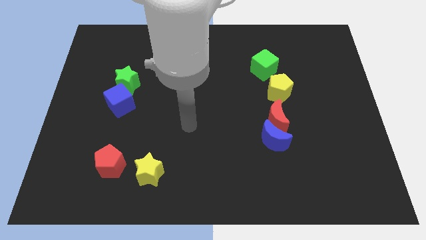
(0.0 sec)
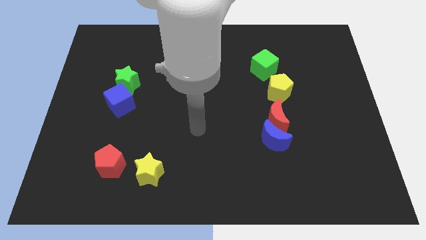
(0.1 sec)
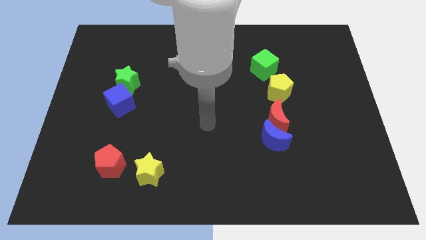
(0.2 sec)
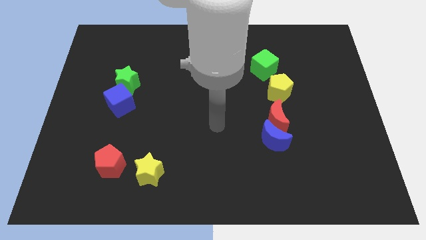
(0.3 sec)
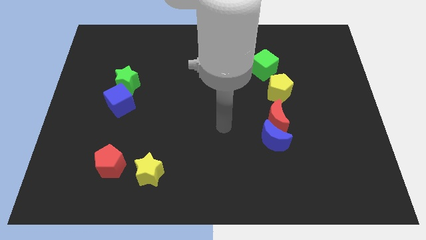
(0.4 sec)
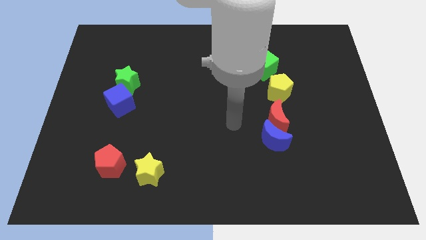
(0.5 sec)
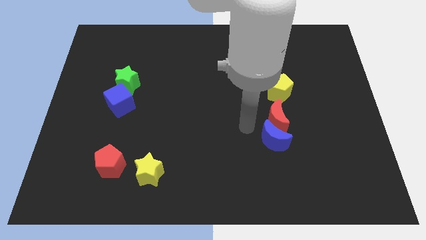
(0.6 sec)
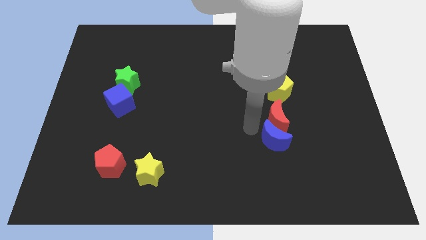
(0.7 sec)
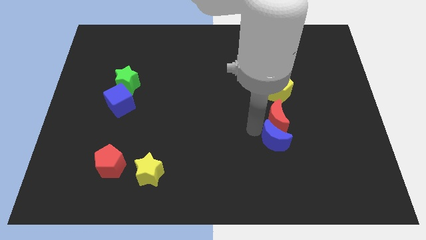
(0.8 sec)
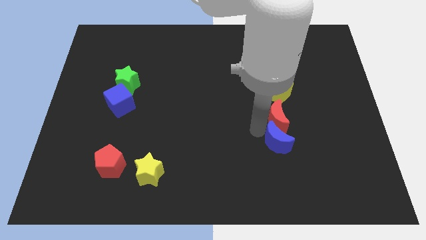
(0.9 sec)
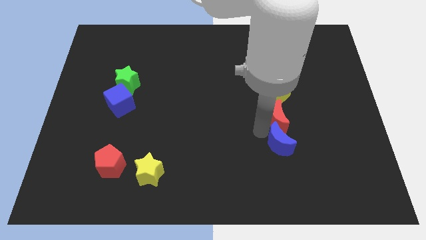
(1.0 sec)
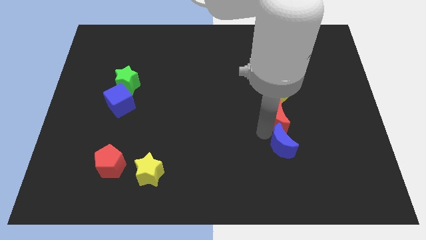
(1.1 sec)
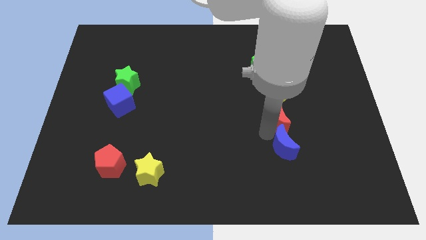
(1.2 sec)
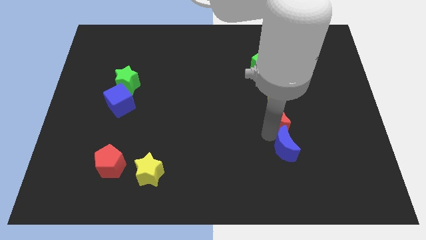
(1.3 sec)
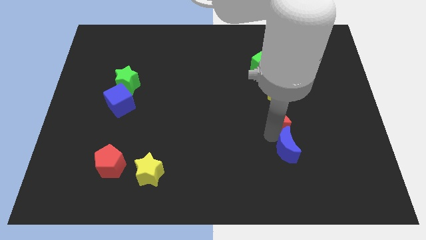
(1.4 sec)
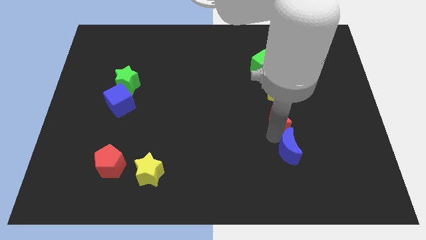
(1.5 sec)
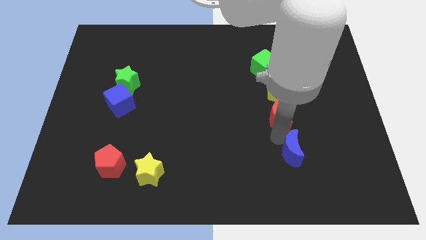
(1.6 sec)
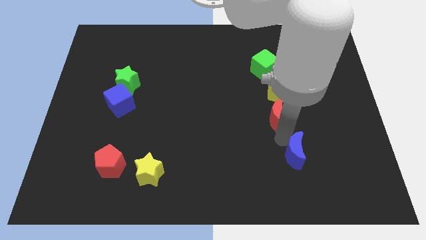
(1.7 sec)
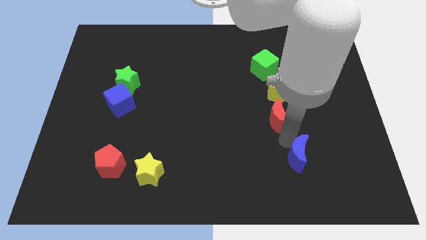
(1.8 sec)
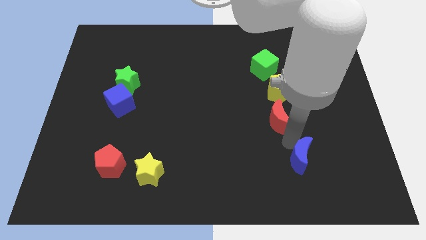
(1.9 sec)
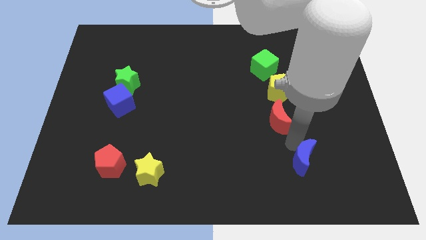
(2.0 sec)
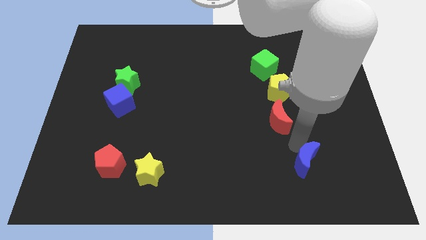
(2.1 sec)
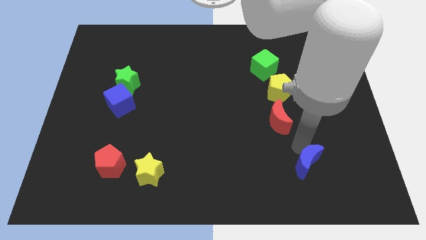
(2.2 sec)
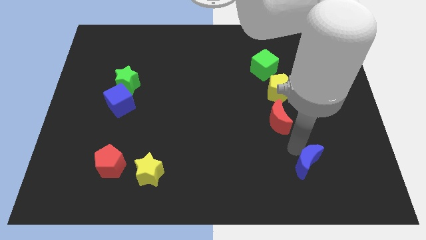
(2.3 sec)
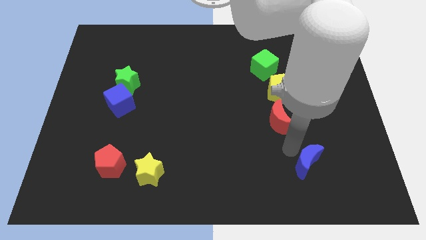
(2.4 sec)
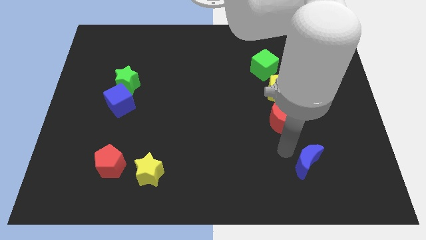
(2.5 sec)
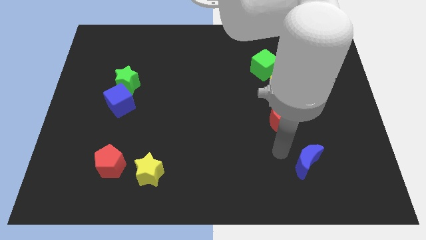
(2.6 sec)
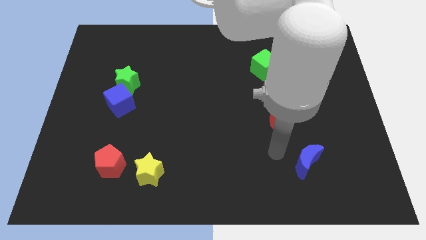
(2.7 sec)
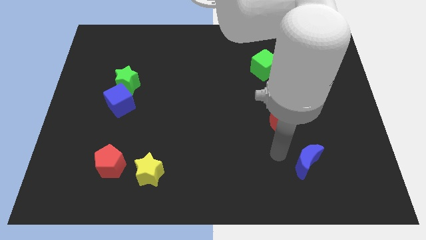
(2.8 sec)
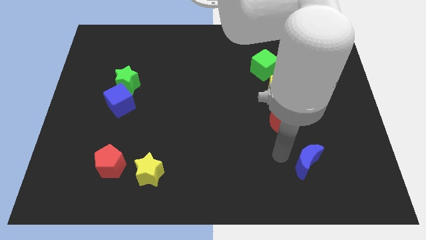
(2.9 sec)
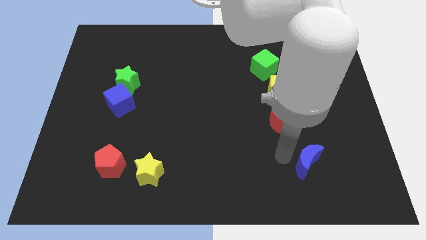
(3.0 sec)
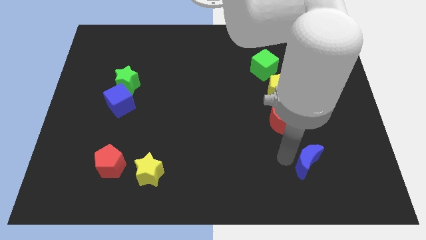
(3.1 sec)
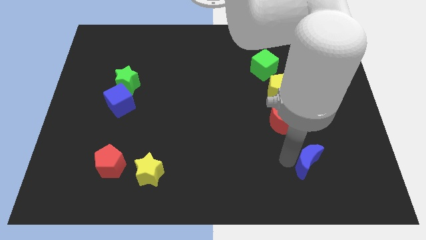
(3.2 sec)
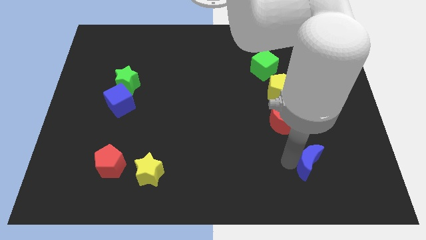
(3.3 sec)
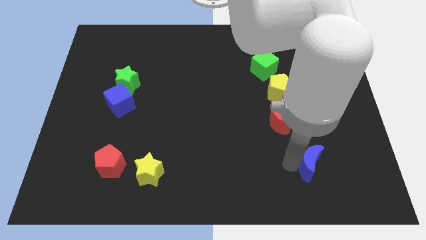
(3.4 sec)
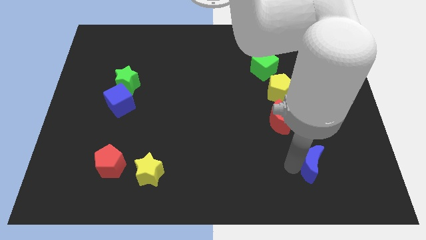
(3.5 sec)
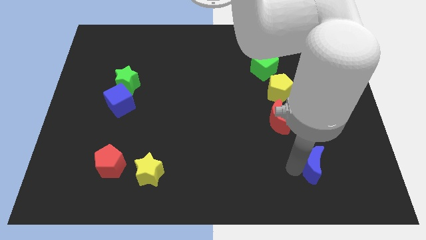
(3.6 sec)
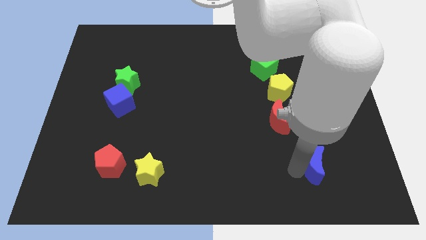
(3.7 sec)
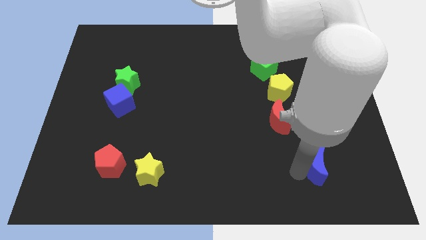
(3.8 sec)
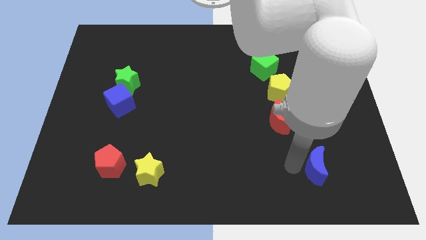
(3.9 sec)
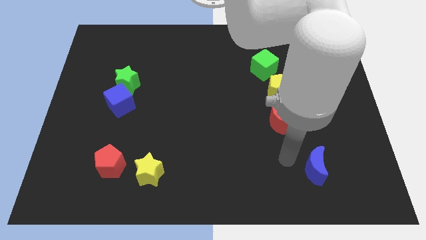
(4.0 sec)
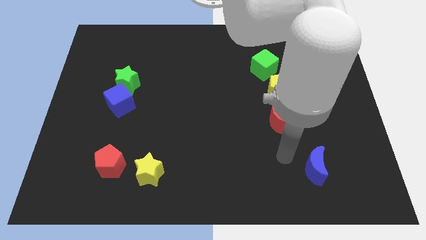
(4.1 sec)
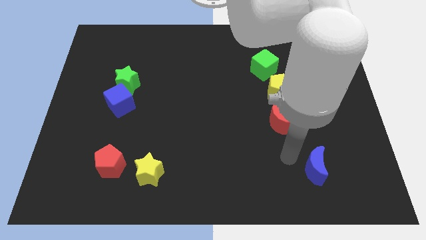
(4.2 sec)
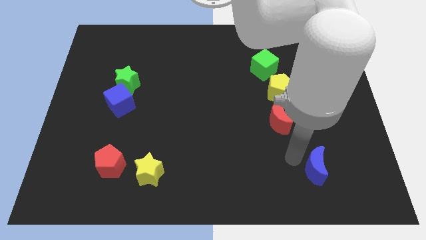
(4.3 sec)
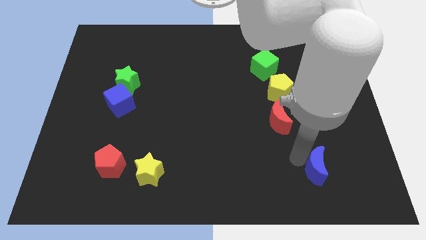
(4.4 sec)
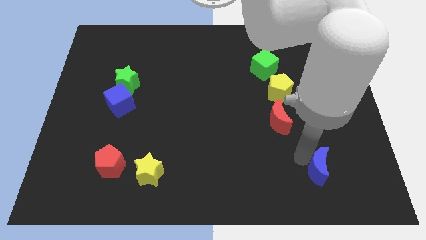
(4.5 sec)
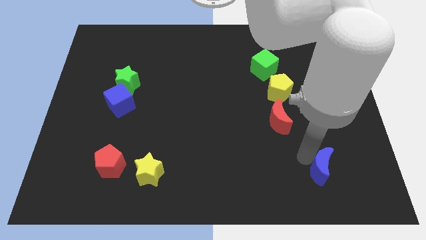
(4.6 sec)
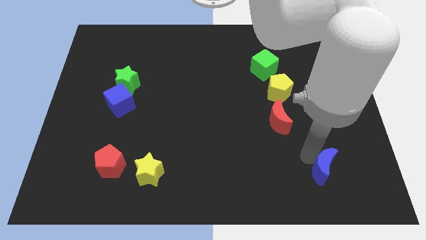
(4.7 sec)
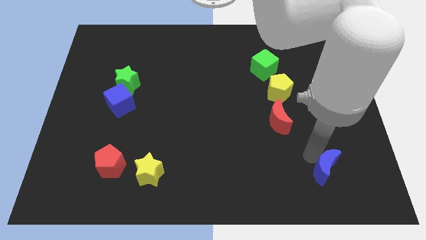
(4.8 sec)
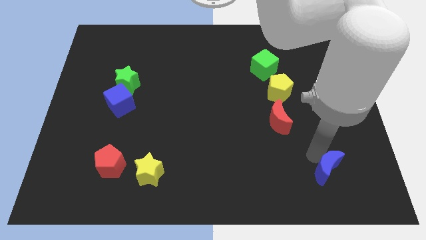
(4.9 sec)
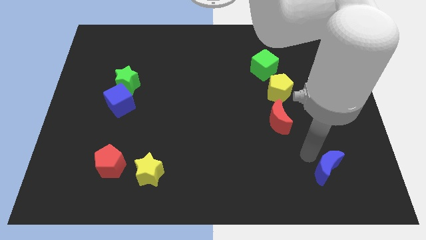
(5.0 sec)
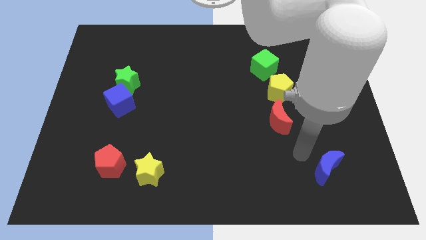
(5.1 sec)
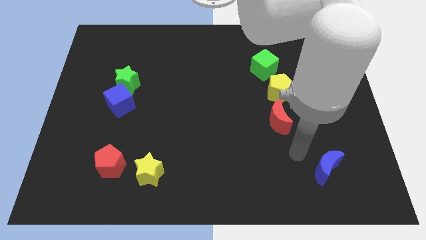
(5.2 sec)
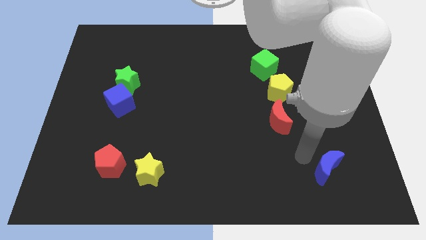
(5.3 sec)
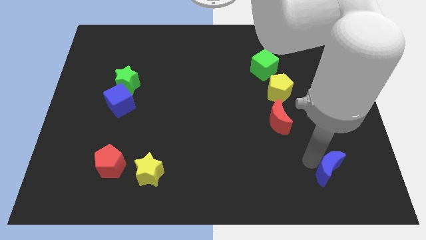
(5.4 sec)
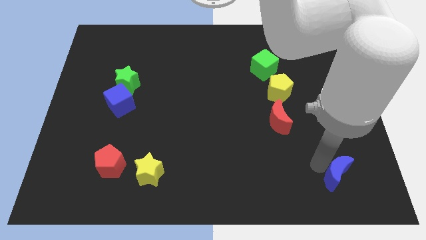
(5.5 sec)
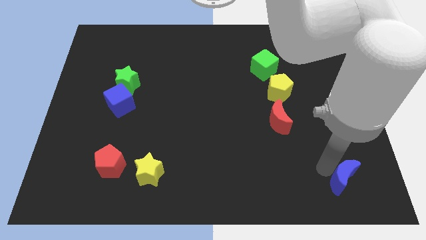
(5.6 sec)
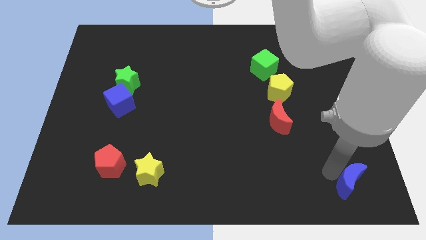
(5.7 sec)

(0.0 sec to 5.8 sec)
slide the blue moon to the bottom right corner

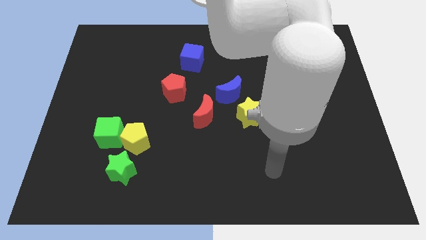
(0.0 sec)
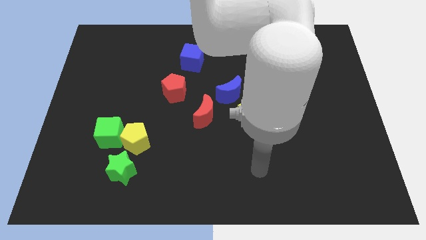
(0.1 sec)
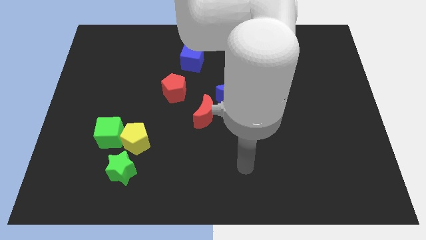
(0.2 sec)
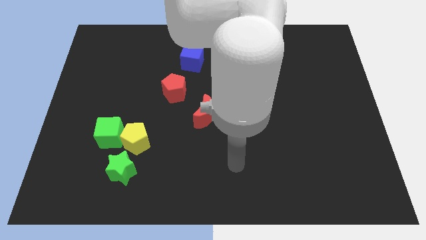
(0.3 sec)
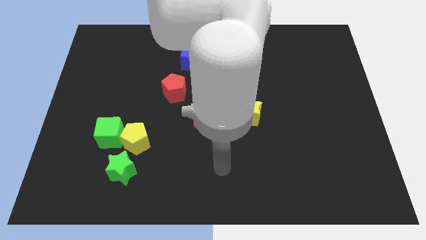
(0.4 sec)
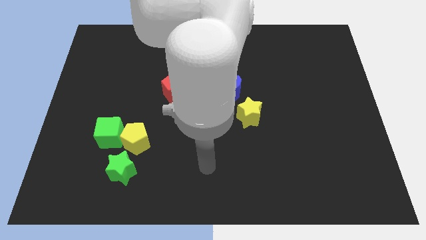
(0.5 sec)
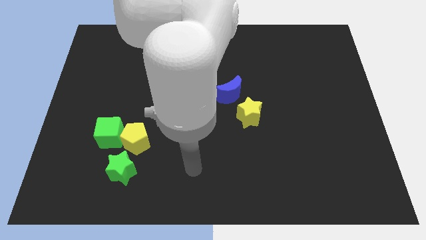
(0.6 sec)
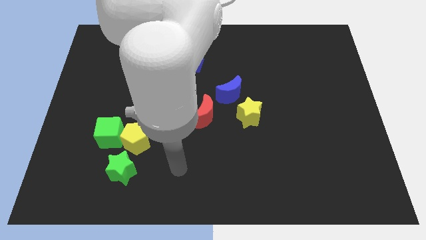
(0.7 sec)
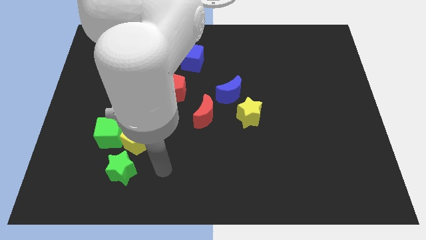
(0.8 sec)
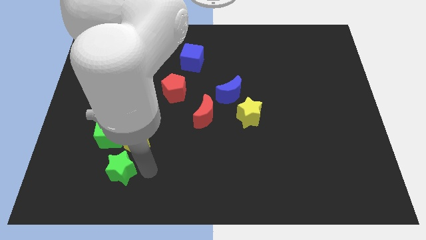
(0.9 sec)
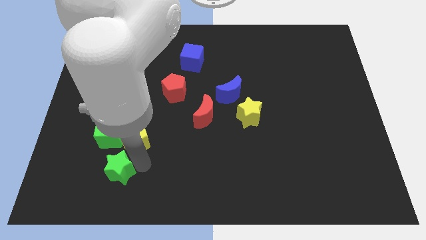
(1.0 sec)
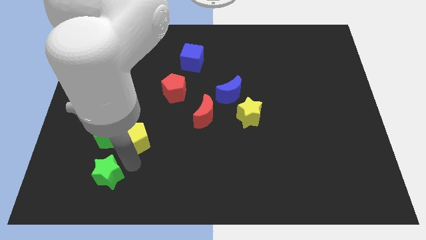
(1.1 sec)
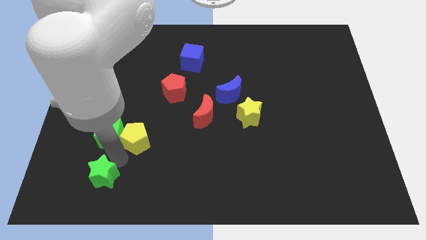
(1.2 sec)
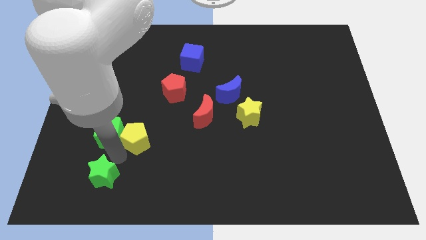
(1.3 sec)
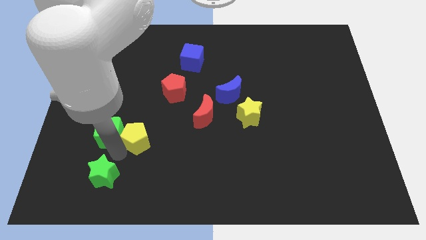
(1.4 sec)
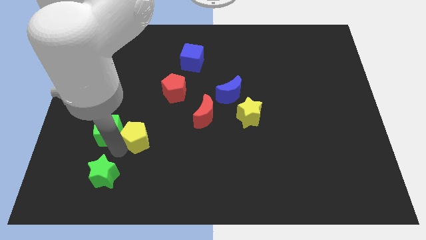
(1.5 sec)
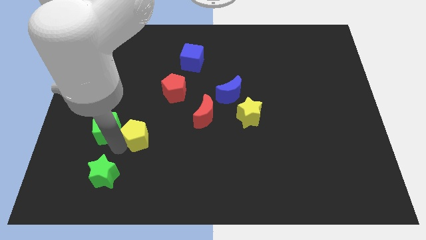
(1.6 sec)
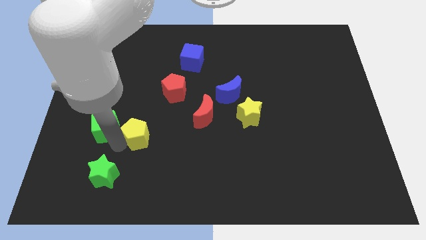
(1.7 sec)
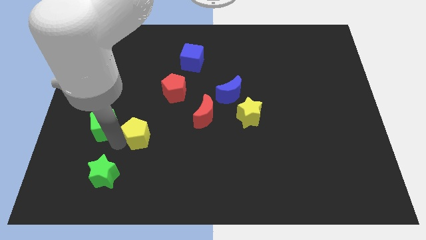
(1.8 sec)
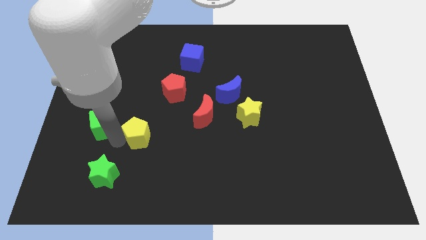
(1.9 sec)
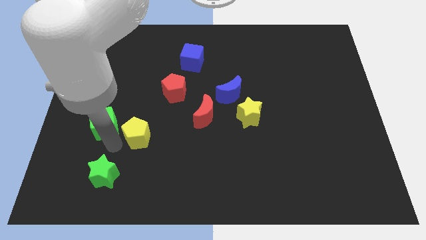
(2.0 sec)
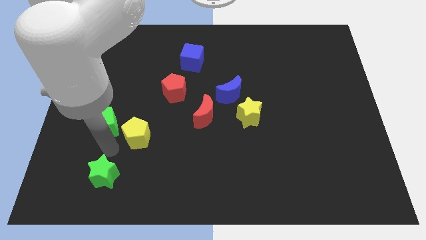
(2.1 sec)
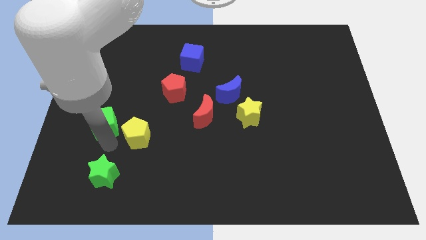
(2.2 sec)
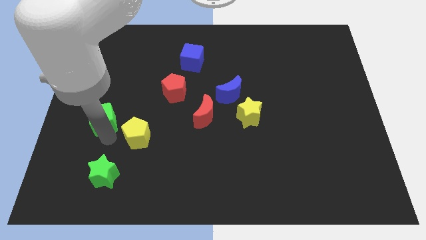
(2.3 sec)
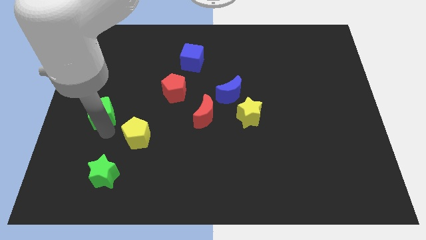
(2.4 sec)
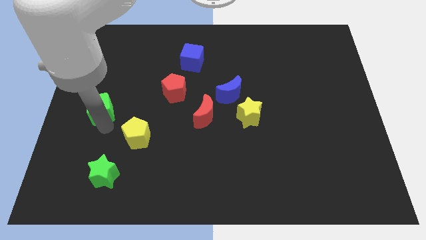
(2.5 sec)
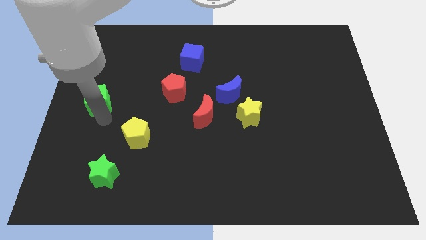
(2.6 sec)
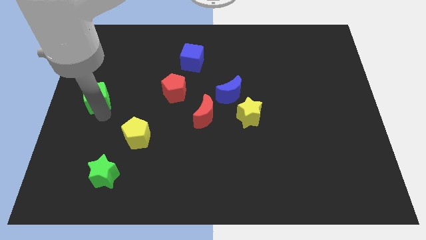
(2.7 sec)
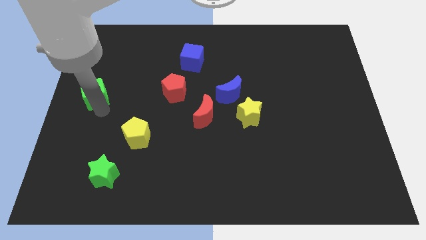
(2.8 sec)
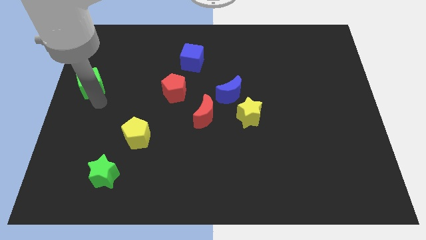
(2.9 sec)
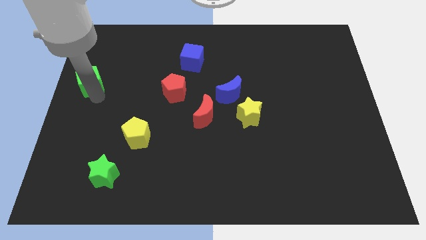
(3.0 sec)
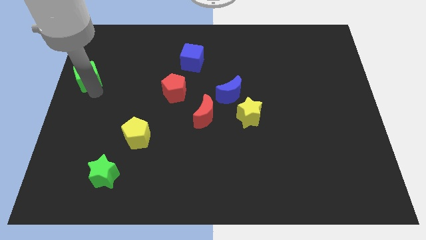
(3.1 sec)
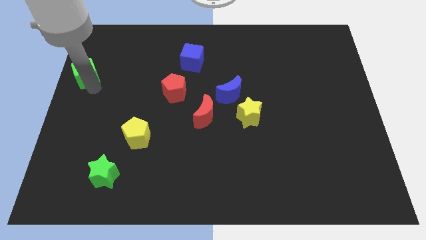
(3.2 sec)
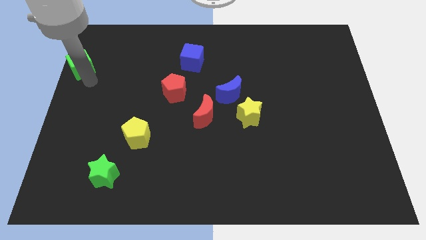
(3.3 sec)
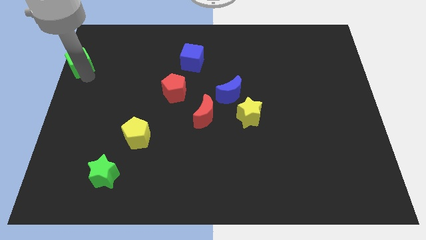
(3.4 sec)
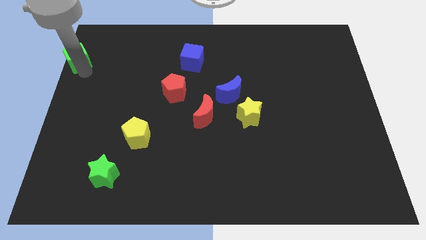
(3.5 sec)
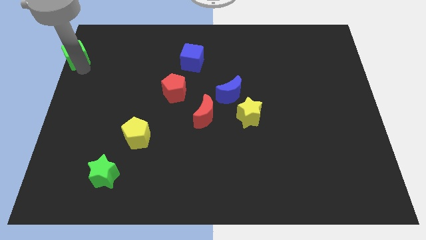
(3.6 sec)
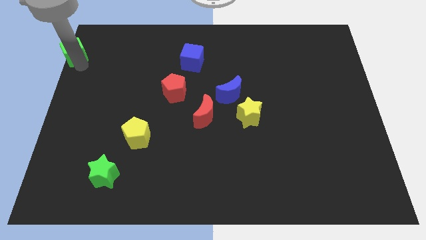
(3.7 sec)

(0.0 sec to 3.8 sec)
slide the green cube to the top left
